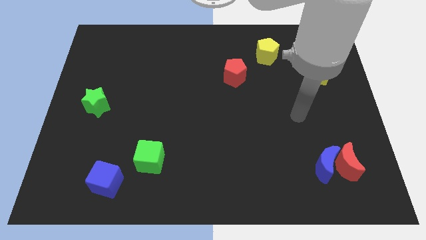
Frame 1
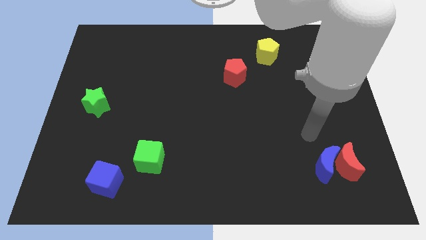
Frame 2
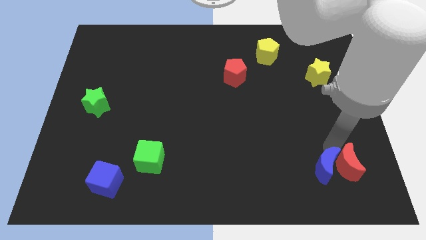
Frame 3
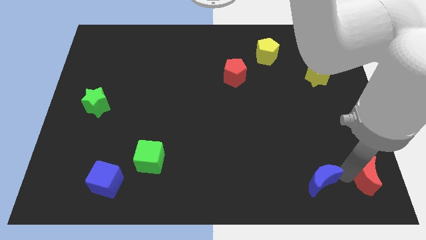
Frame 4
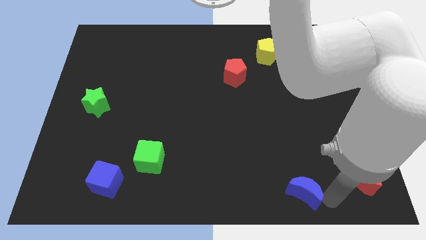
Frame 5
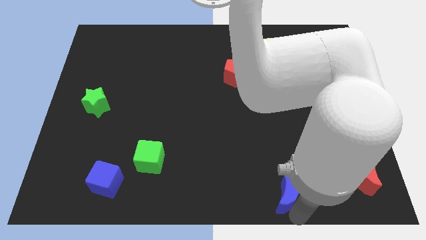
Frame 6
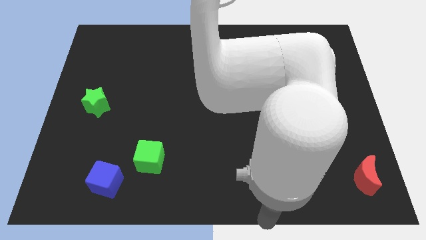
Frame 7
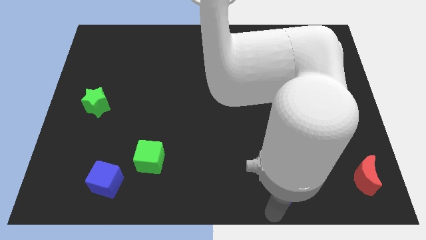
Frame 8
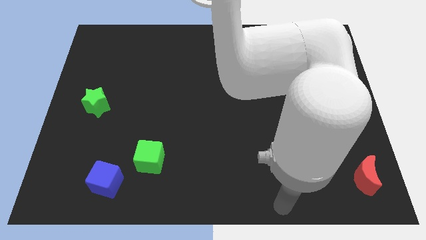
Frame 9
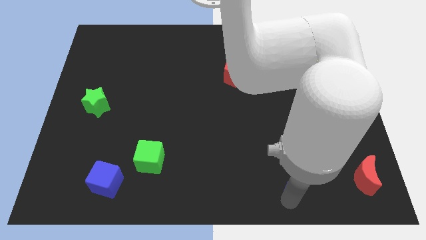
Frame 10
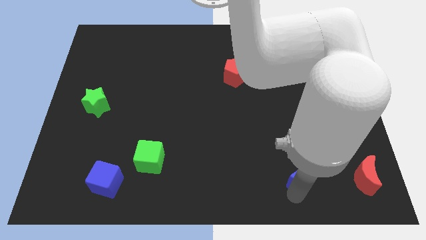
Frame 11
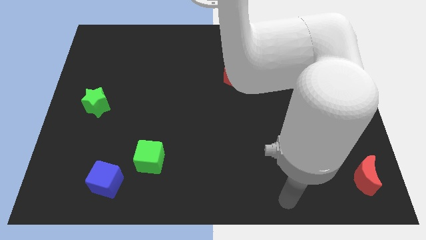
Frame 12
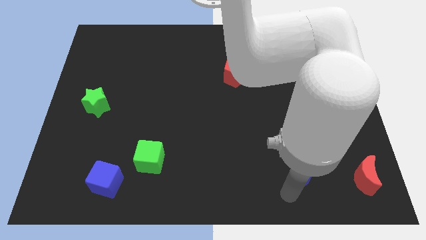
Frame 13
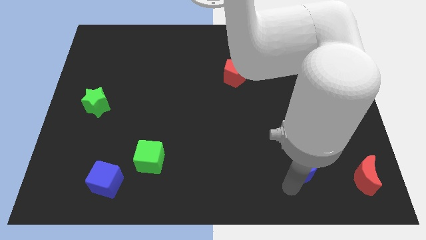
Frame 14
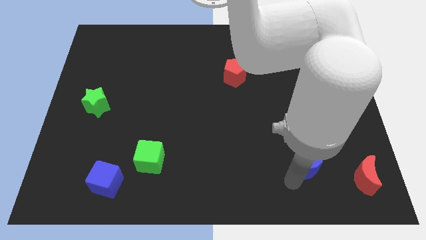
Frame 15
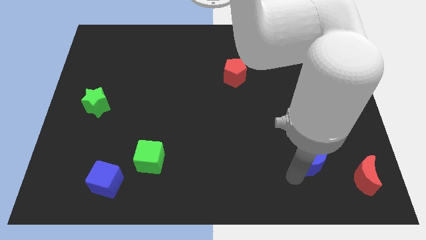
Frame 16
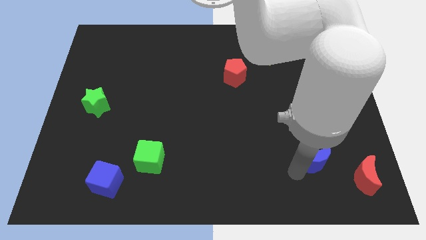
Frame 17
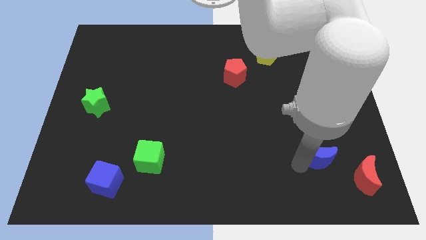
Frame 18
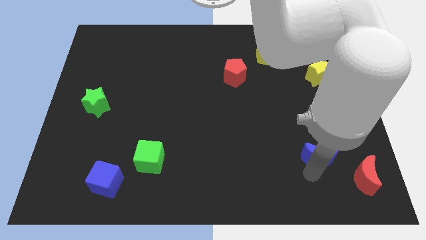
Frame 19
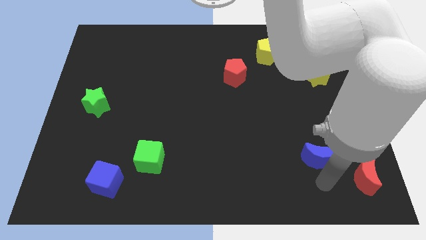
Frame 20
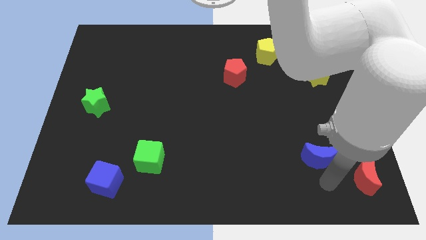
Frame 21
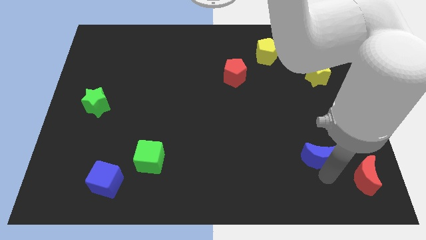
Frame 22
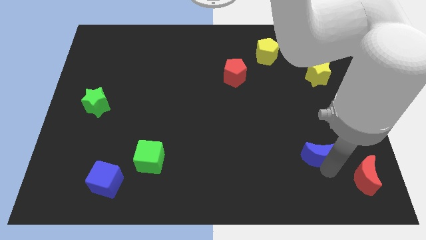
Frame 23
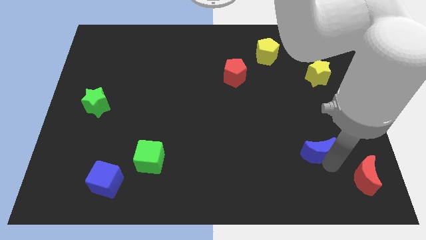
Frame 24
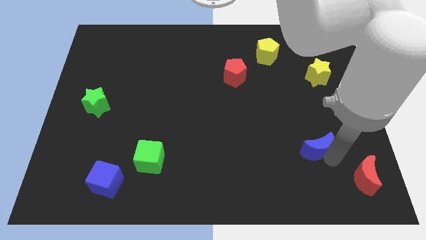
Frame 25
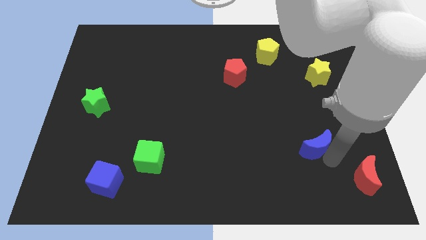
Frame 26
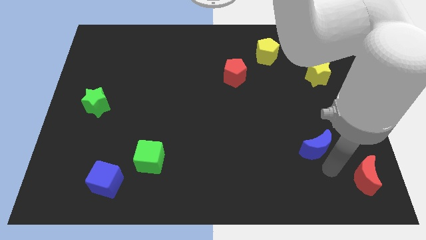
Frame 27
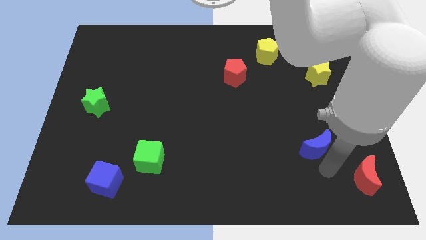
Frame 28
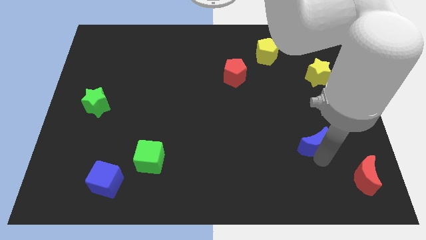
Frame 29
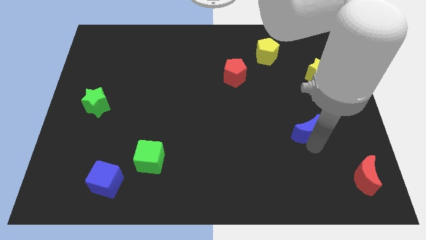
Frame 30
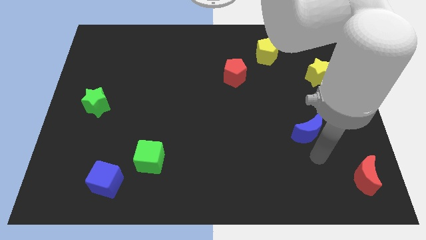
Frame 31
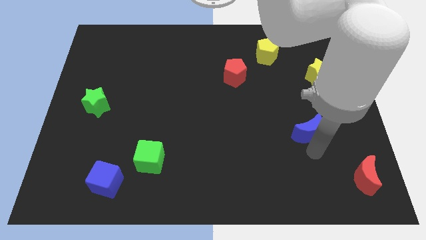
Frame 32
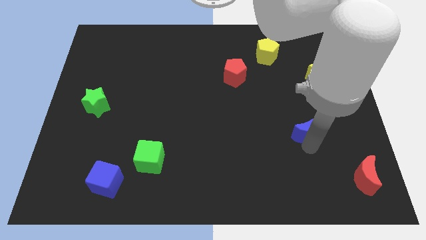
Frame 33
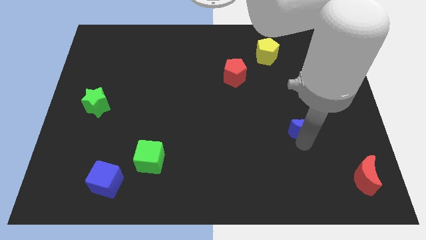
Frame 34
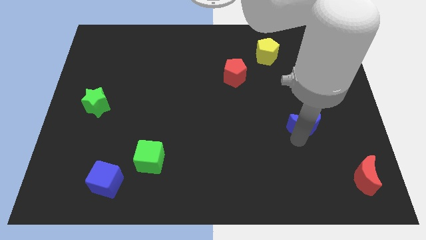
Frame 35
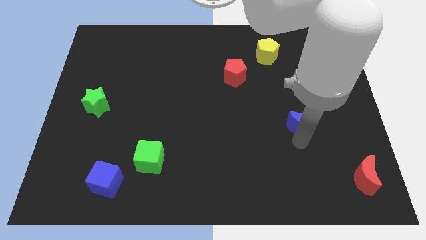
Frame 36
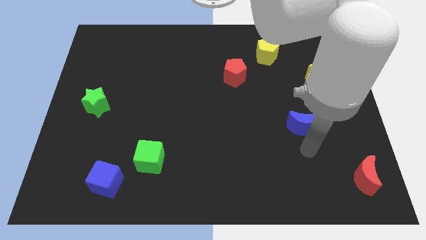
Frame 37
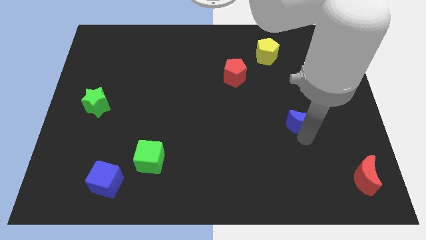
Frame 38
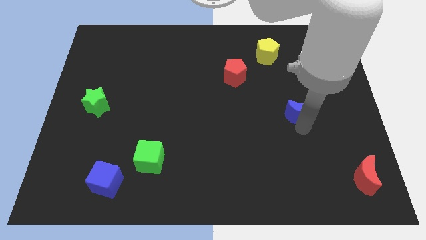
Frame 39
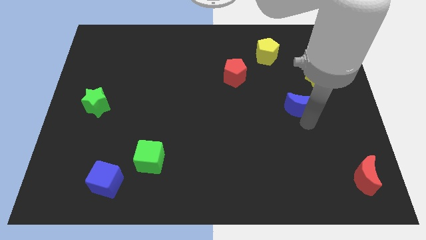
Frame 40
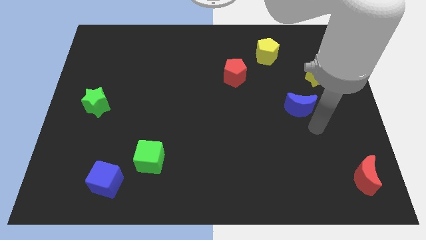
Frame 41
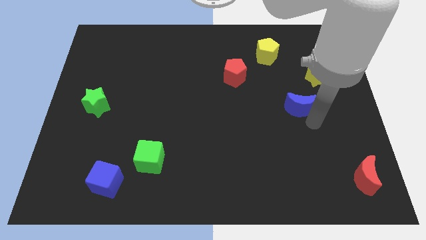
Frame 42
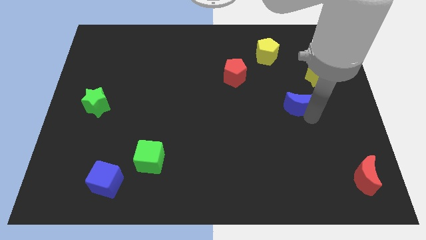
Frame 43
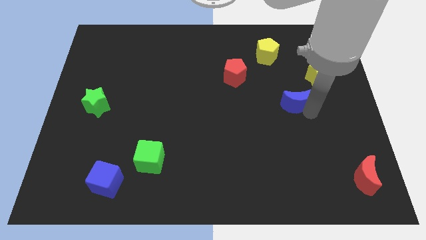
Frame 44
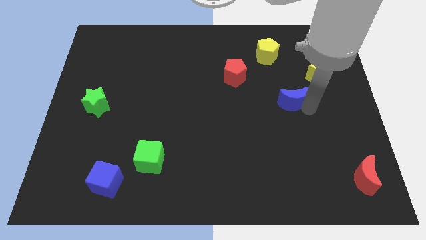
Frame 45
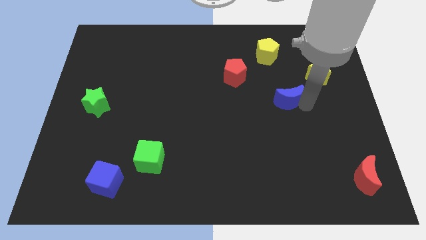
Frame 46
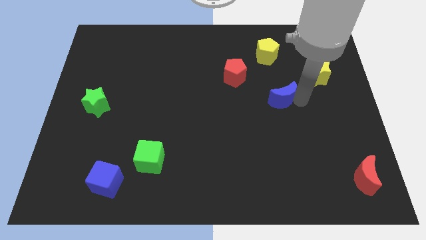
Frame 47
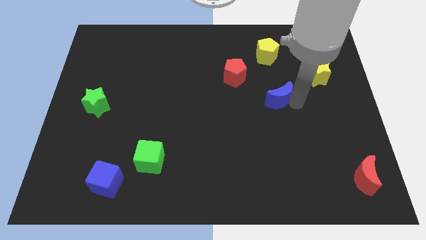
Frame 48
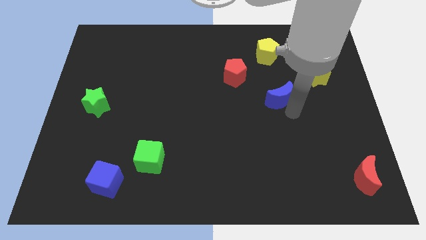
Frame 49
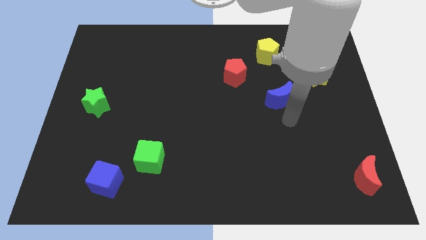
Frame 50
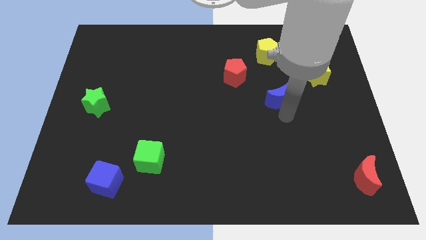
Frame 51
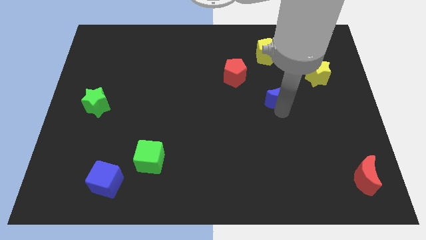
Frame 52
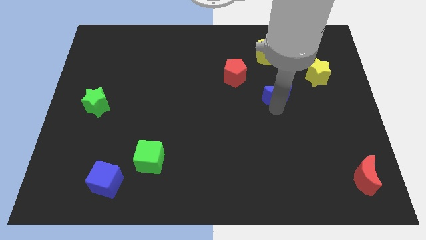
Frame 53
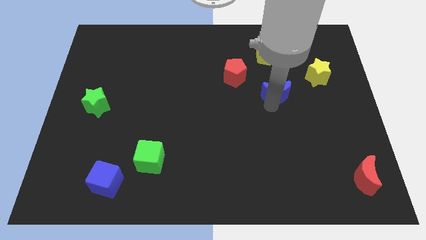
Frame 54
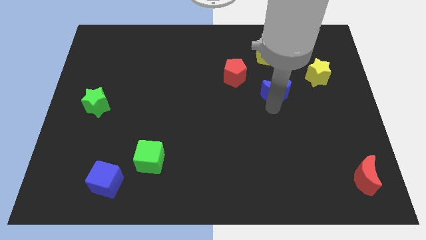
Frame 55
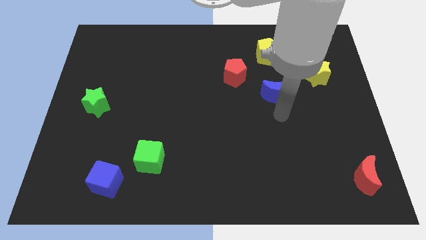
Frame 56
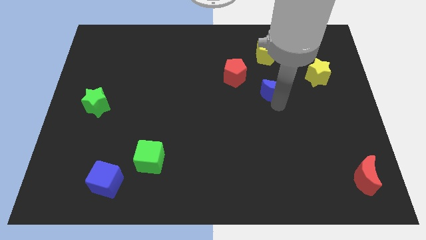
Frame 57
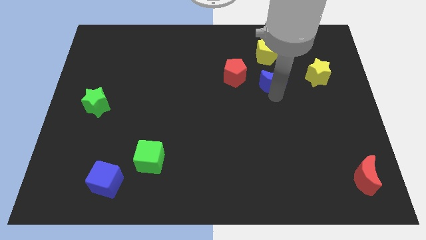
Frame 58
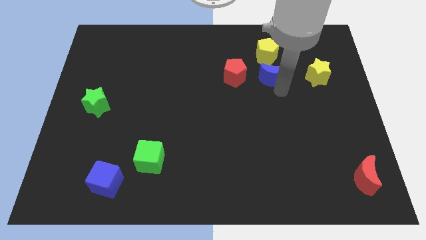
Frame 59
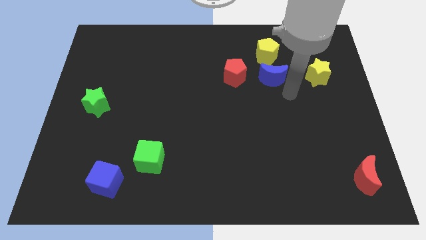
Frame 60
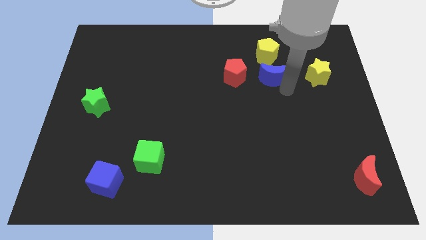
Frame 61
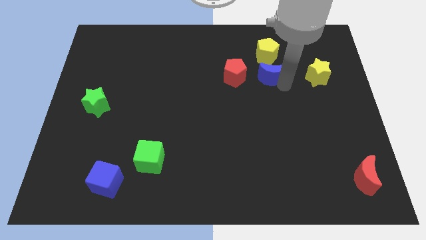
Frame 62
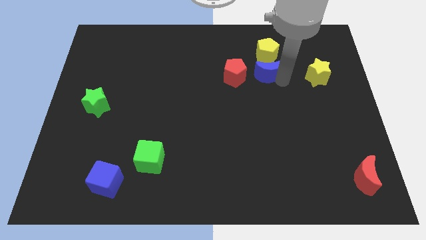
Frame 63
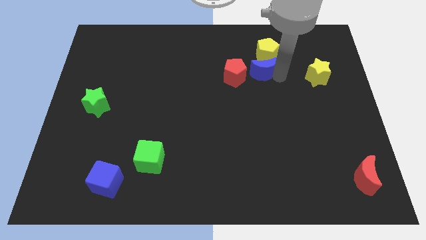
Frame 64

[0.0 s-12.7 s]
slide the blue moon to the top right of the red pentagon

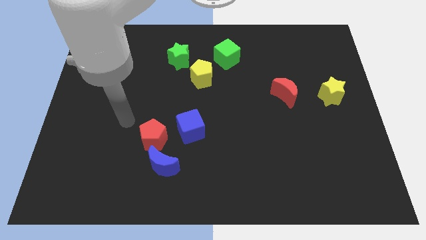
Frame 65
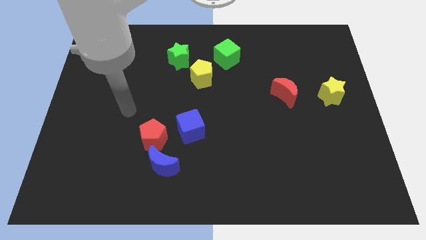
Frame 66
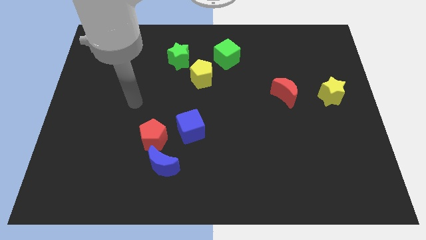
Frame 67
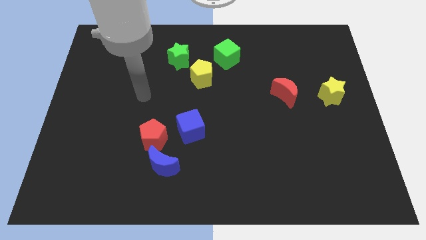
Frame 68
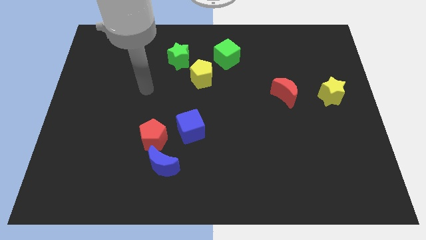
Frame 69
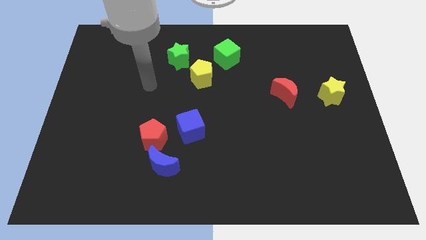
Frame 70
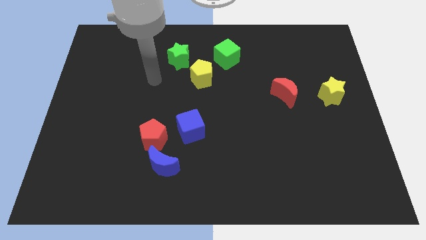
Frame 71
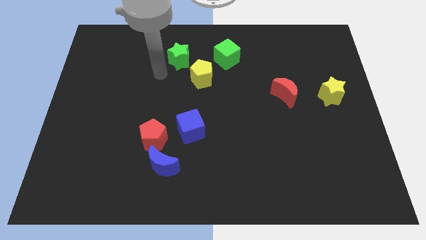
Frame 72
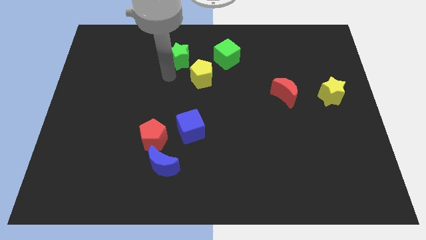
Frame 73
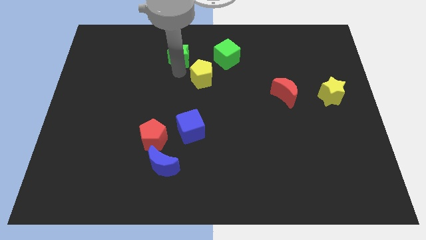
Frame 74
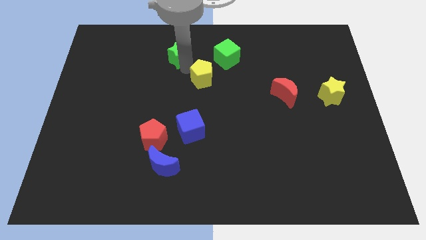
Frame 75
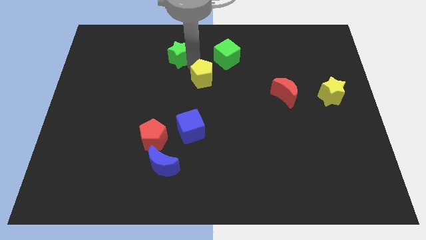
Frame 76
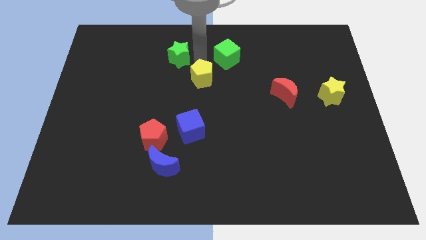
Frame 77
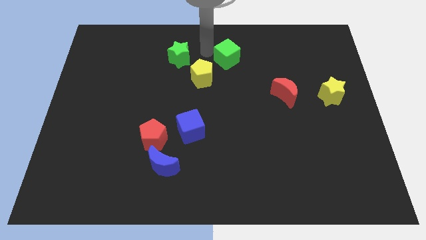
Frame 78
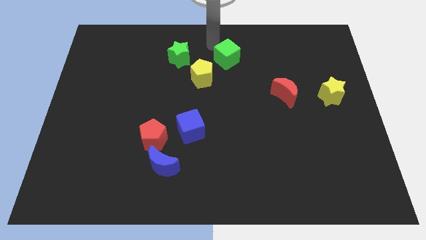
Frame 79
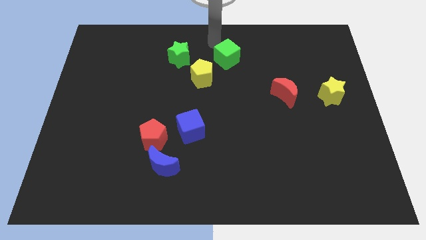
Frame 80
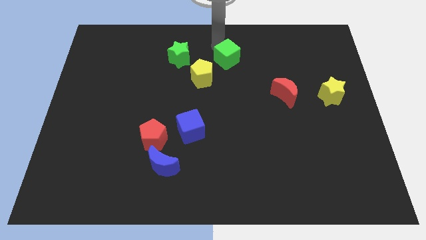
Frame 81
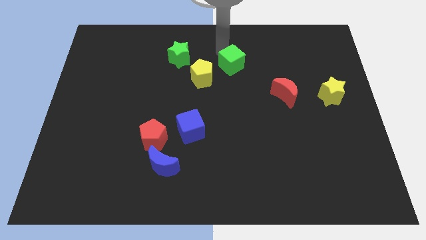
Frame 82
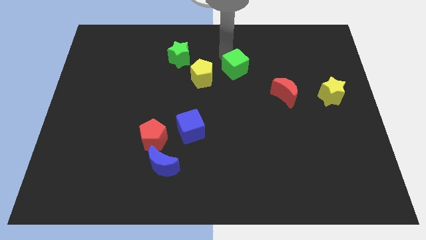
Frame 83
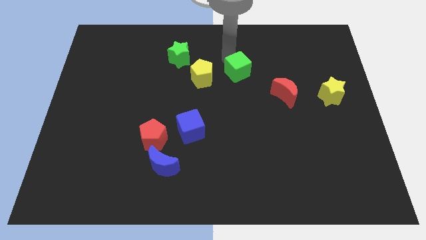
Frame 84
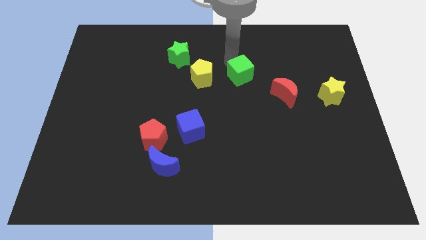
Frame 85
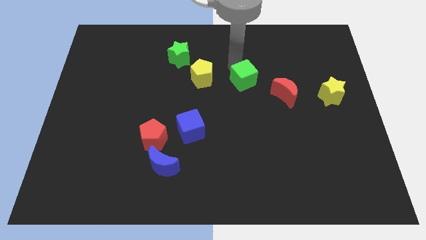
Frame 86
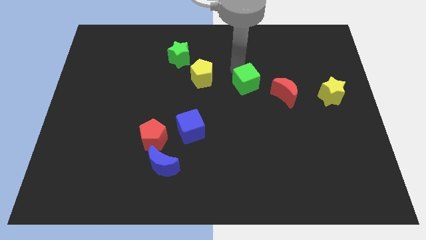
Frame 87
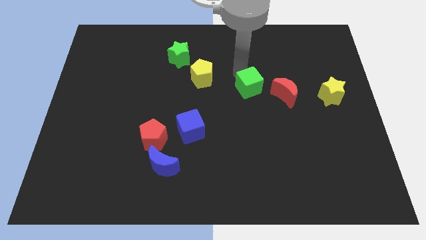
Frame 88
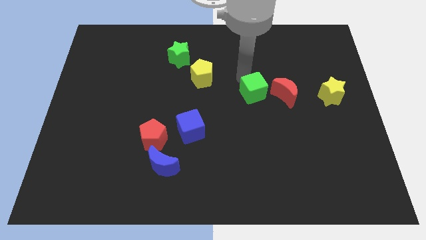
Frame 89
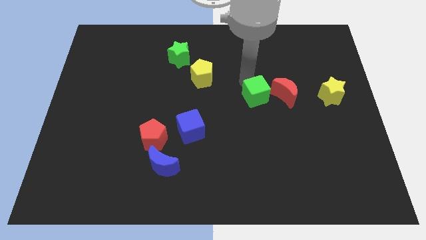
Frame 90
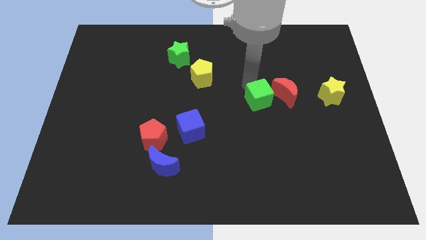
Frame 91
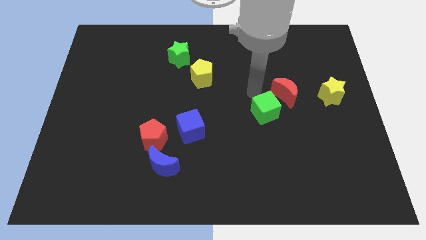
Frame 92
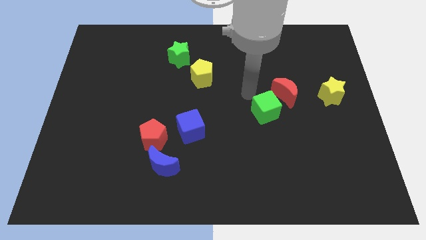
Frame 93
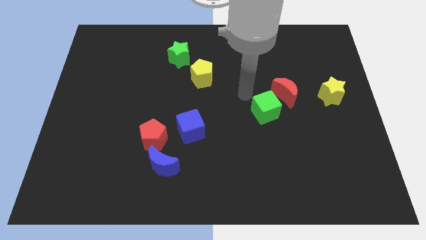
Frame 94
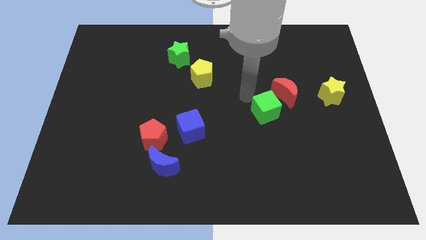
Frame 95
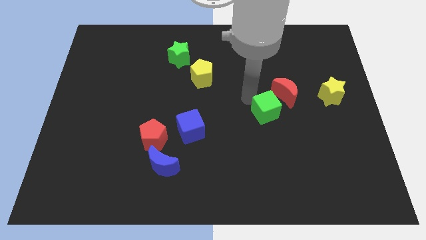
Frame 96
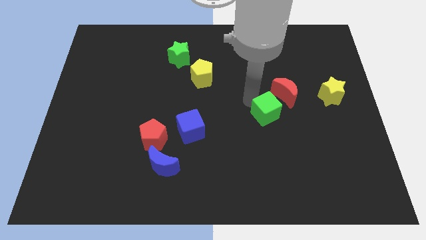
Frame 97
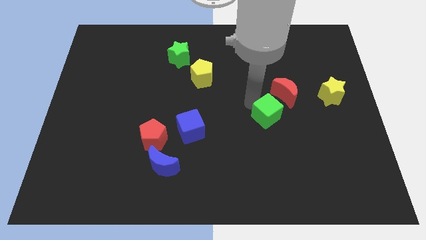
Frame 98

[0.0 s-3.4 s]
move the green cube to the bottom of the red moon
